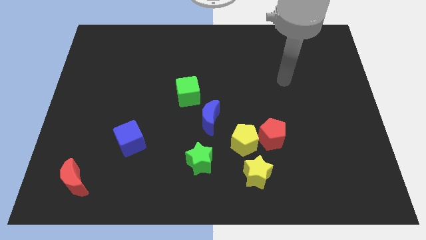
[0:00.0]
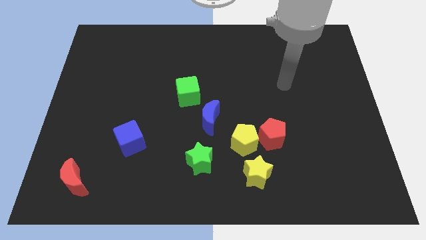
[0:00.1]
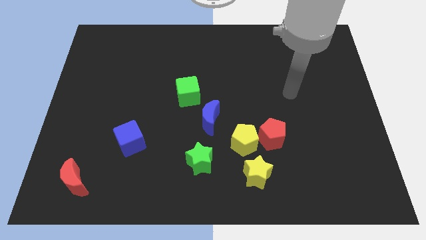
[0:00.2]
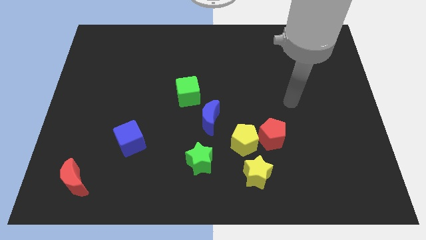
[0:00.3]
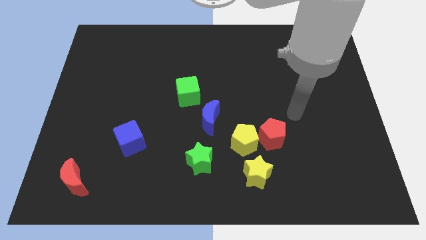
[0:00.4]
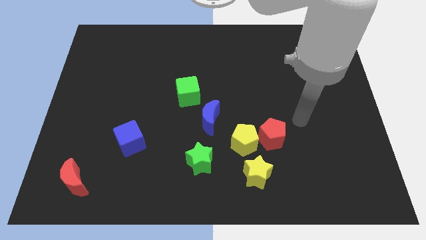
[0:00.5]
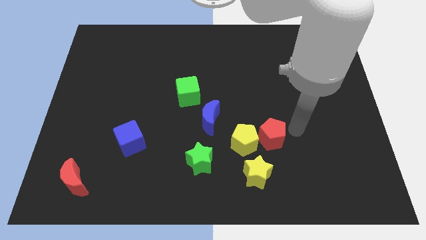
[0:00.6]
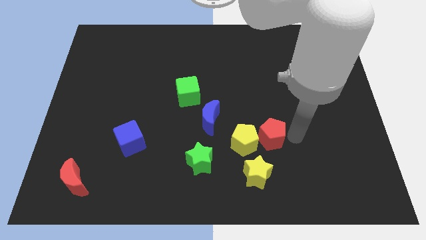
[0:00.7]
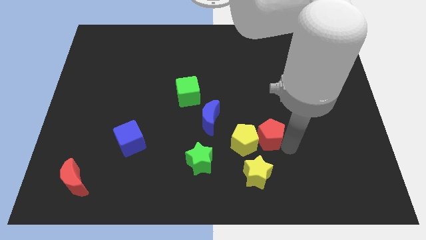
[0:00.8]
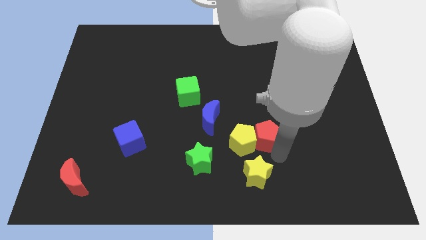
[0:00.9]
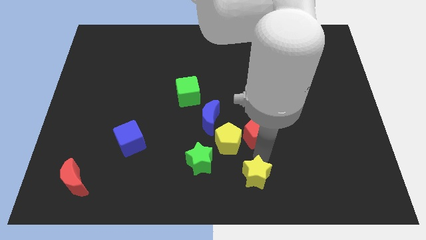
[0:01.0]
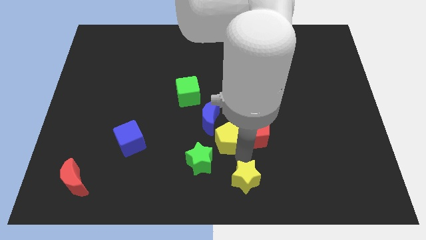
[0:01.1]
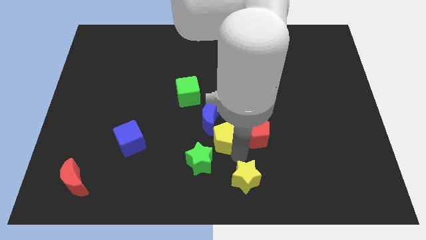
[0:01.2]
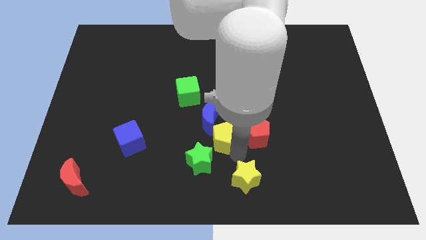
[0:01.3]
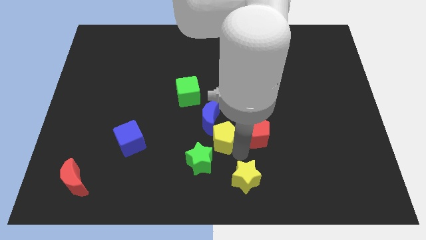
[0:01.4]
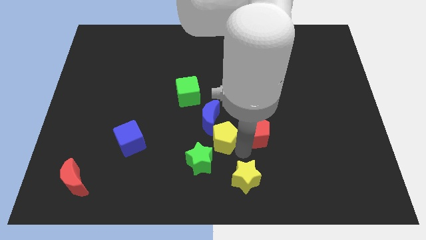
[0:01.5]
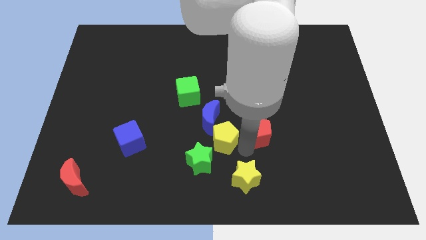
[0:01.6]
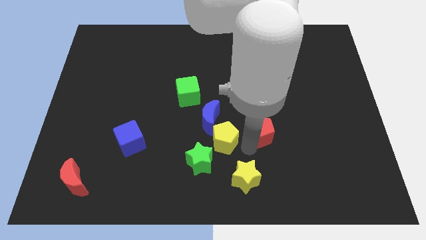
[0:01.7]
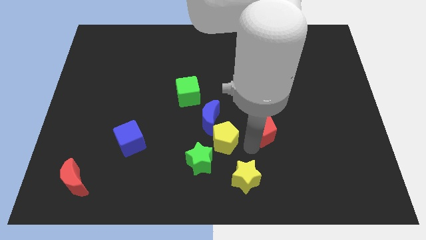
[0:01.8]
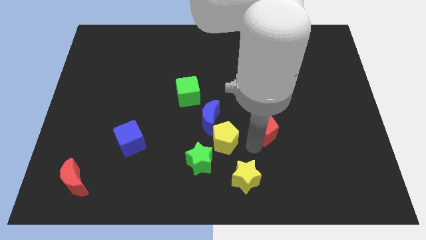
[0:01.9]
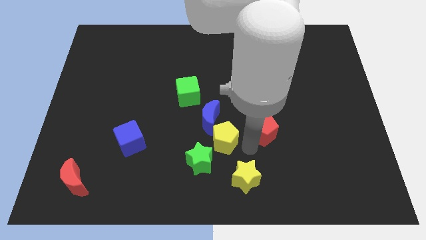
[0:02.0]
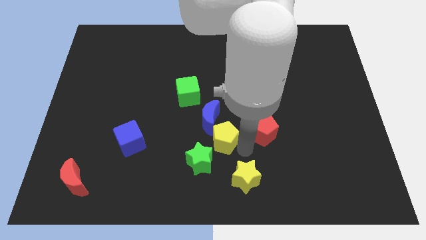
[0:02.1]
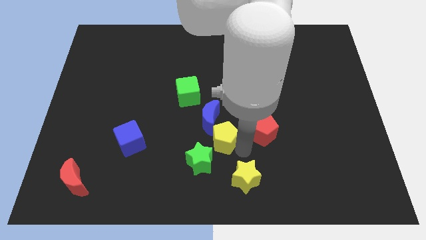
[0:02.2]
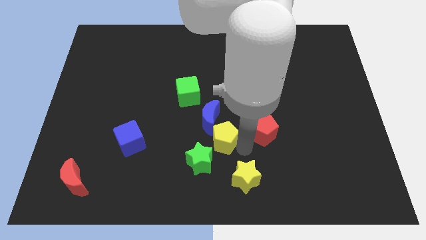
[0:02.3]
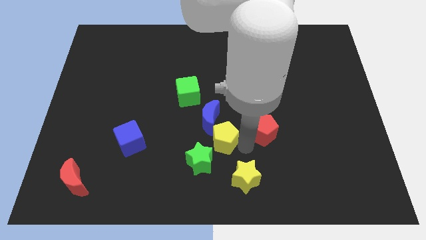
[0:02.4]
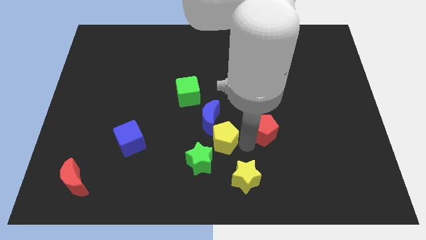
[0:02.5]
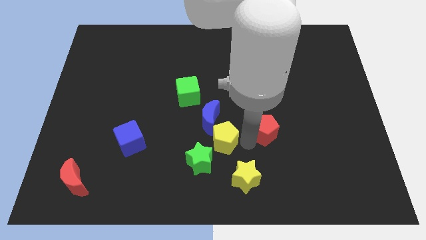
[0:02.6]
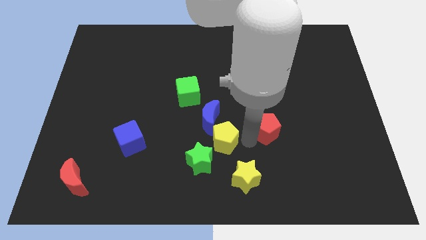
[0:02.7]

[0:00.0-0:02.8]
pull the red pentagon apart from the yellow pentagon and yellow star

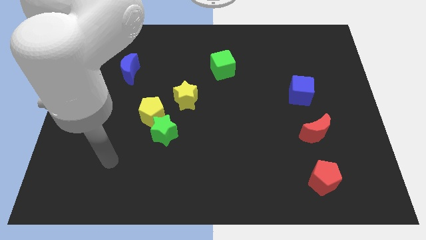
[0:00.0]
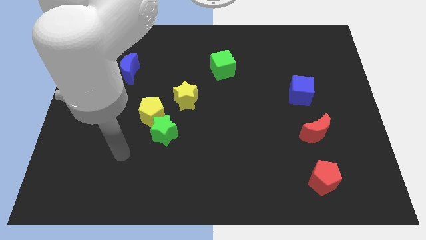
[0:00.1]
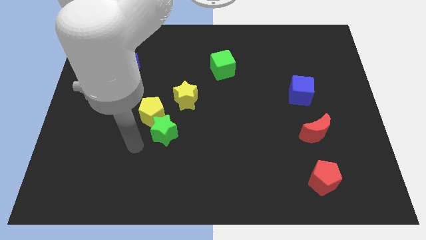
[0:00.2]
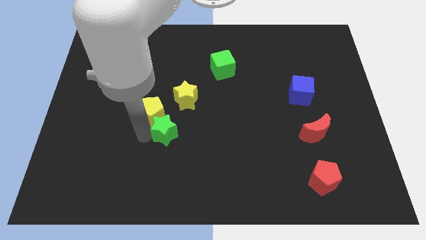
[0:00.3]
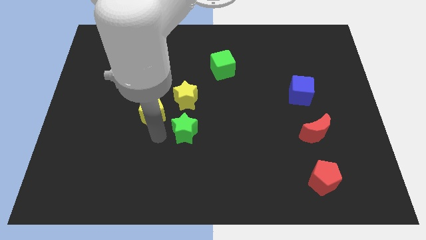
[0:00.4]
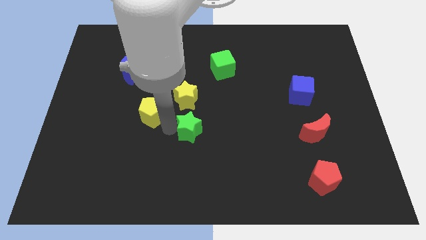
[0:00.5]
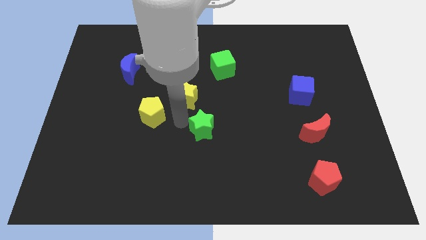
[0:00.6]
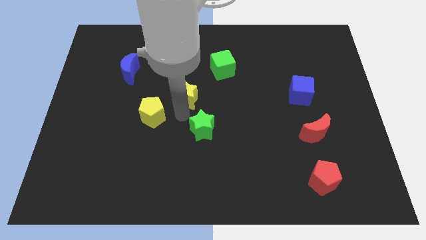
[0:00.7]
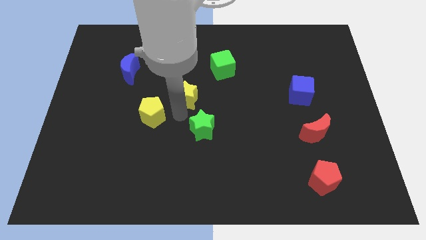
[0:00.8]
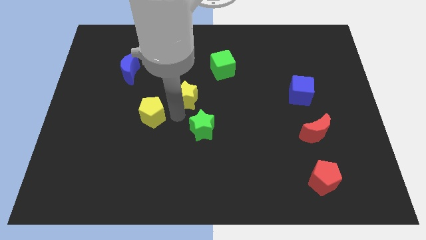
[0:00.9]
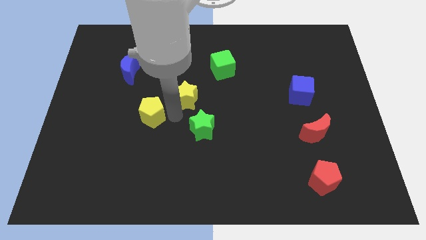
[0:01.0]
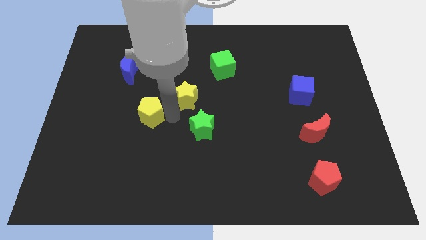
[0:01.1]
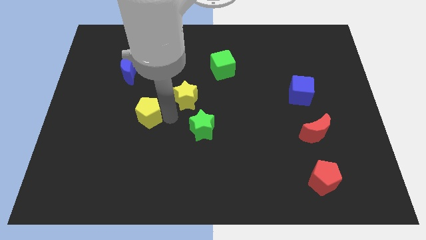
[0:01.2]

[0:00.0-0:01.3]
pull the yellow pentagon apart from the green star and yellow star

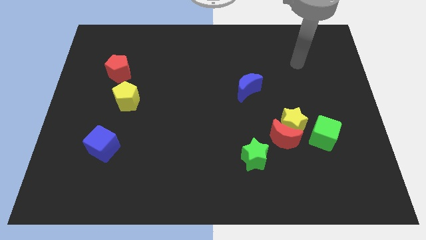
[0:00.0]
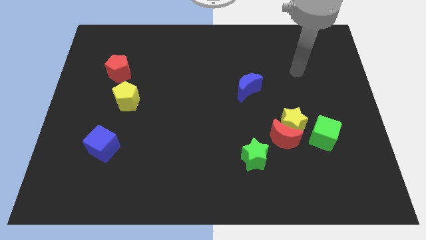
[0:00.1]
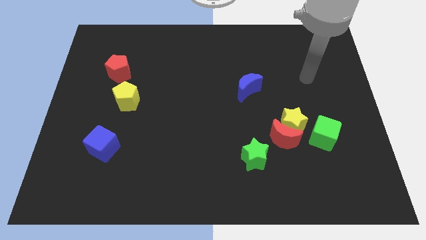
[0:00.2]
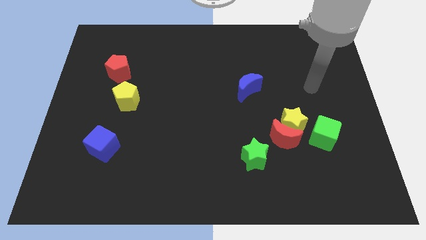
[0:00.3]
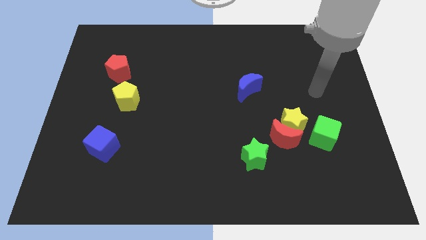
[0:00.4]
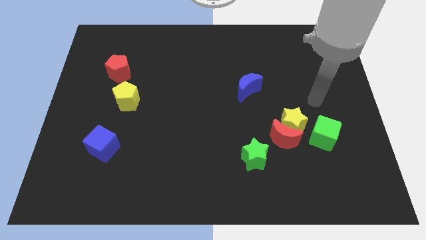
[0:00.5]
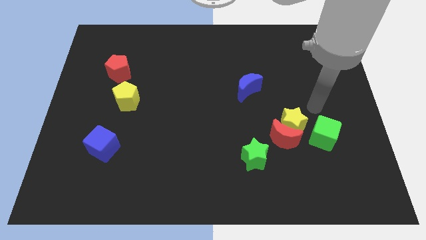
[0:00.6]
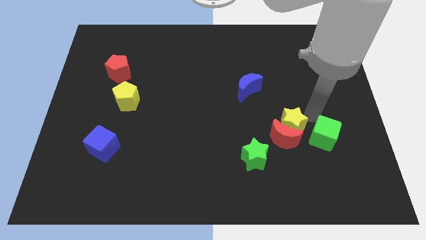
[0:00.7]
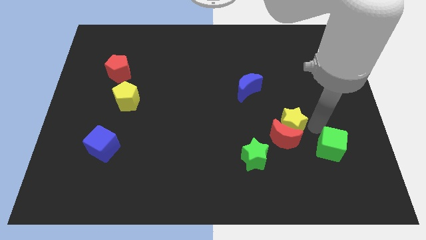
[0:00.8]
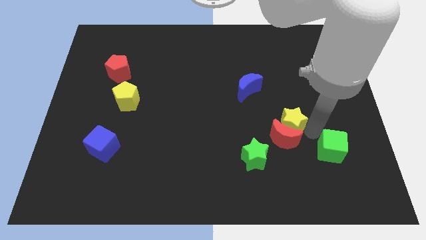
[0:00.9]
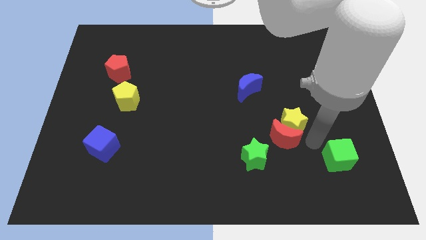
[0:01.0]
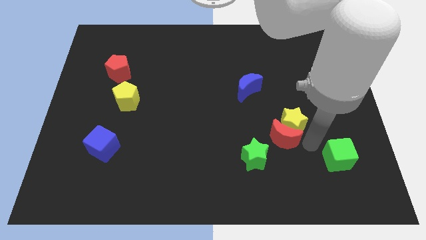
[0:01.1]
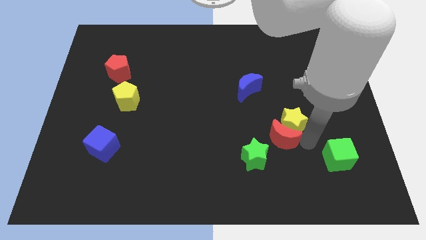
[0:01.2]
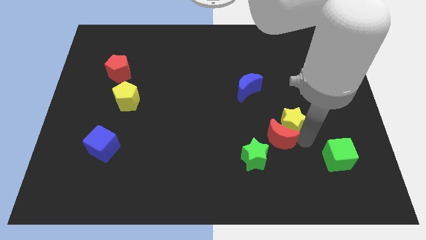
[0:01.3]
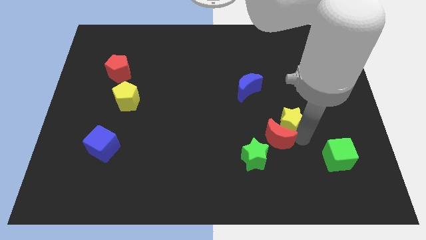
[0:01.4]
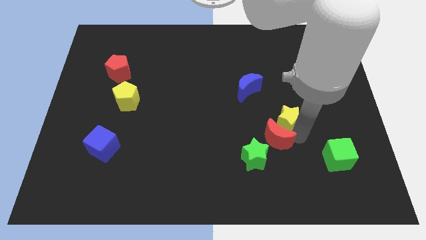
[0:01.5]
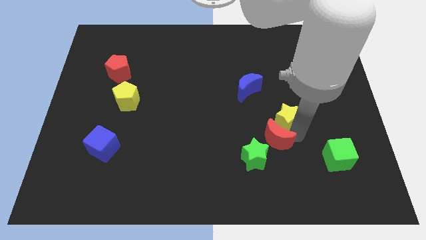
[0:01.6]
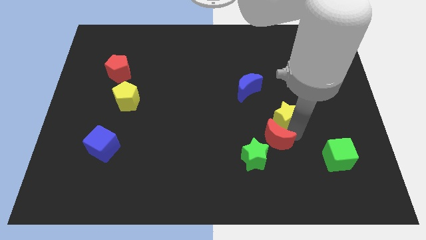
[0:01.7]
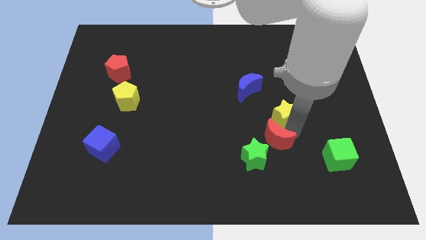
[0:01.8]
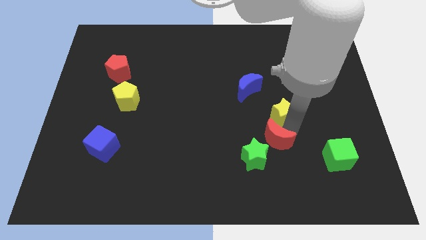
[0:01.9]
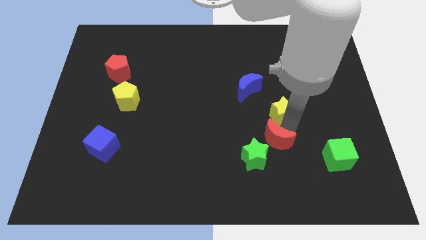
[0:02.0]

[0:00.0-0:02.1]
move the yellow star away from the red moon and green cube

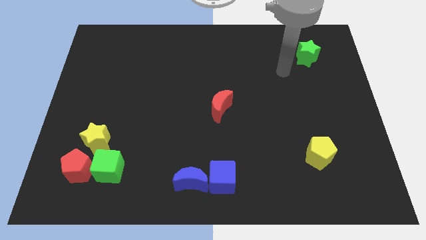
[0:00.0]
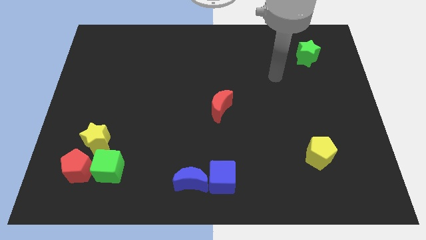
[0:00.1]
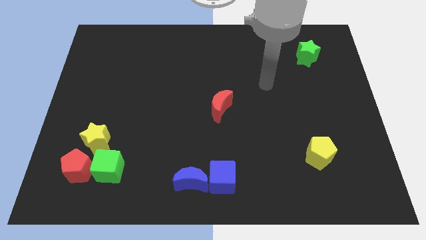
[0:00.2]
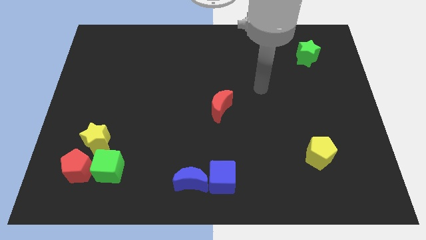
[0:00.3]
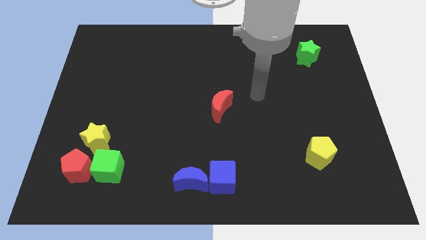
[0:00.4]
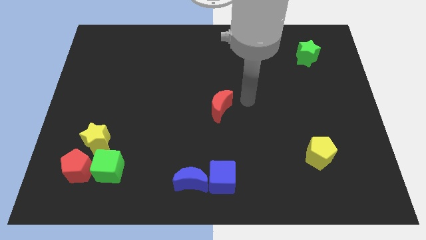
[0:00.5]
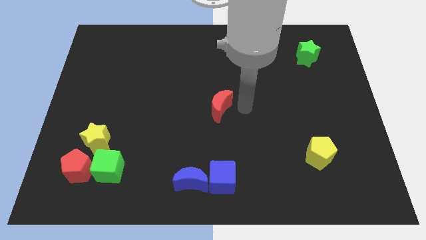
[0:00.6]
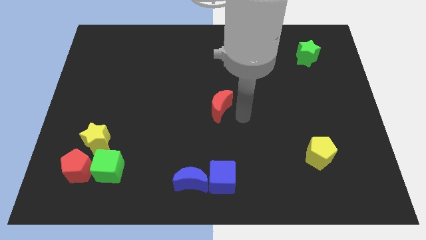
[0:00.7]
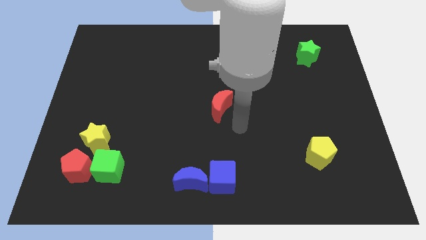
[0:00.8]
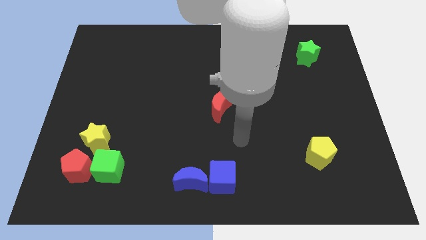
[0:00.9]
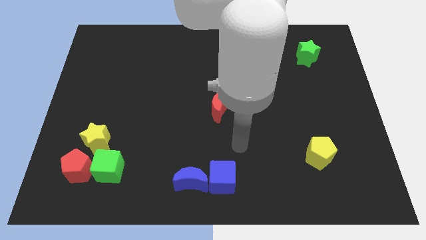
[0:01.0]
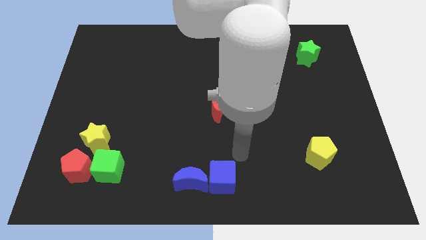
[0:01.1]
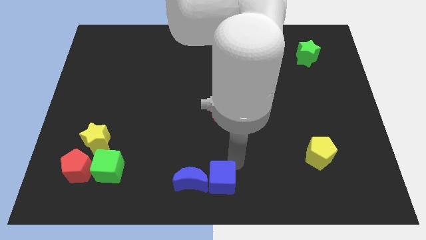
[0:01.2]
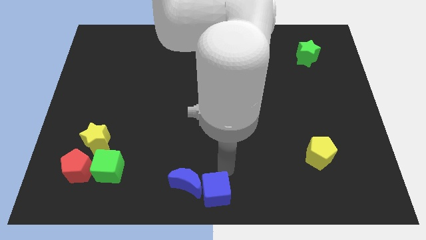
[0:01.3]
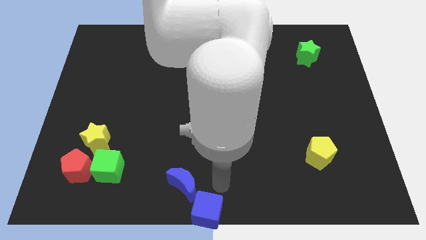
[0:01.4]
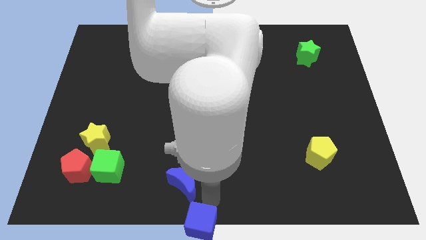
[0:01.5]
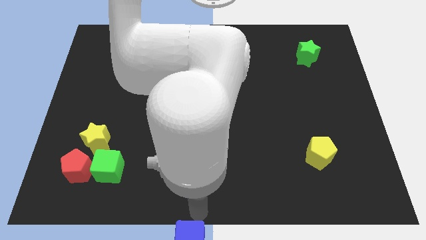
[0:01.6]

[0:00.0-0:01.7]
move the blue moon away from the blue cube

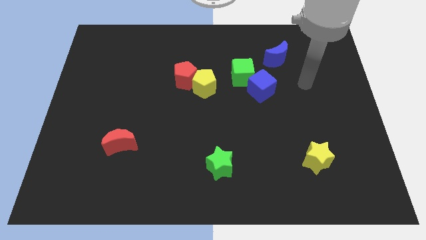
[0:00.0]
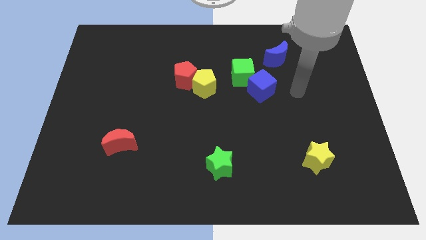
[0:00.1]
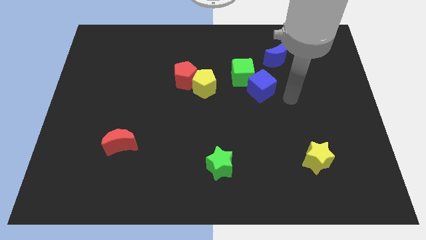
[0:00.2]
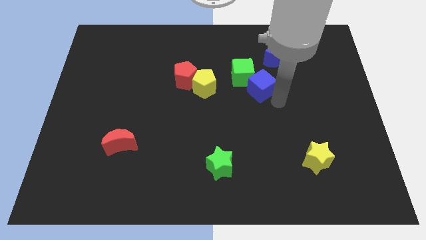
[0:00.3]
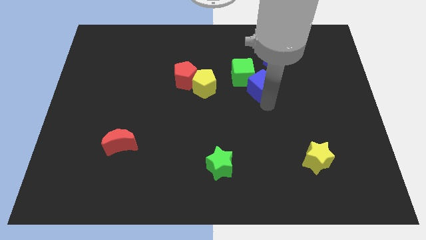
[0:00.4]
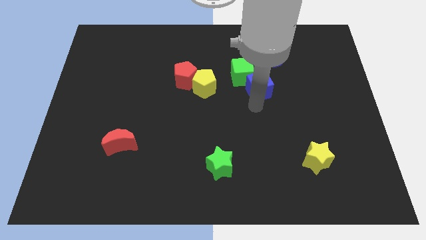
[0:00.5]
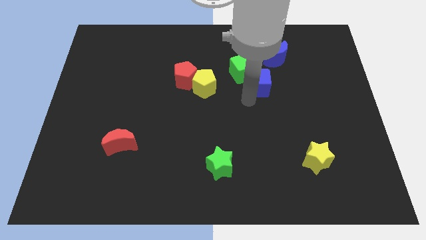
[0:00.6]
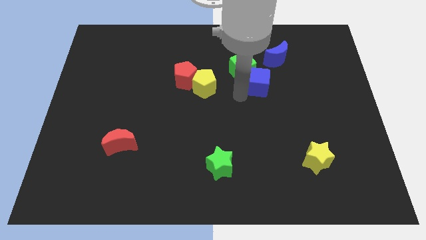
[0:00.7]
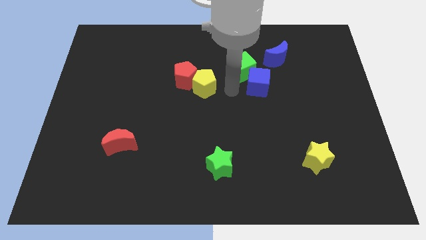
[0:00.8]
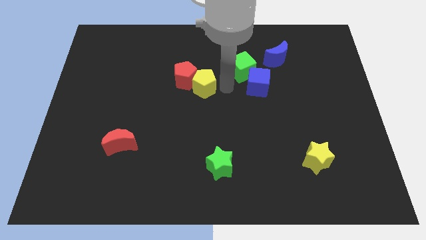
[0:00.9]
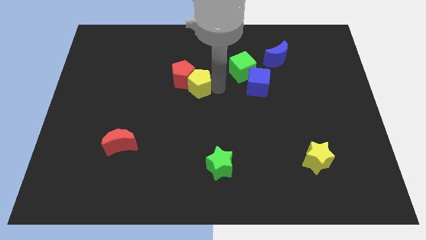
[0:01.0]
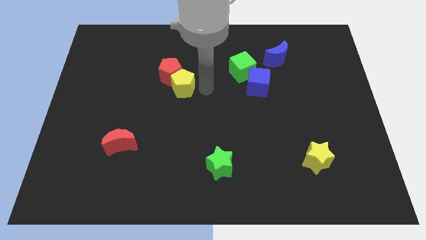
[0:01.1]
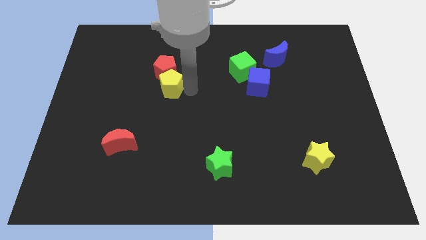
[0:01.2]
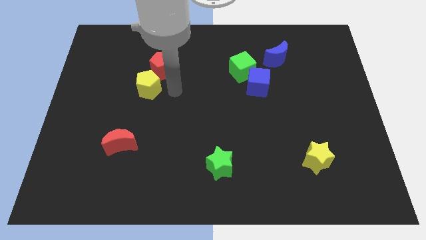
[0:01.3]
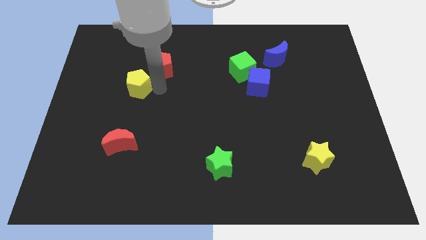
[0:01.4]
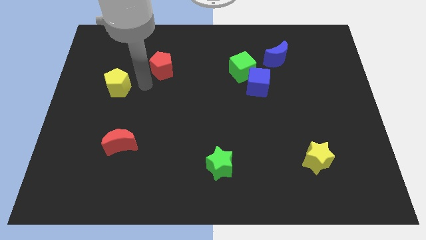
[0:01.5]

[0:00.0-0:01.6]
pull the red pentagon apart from the yellow pentagon
